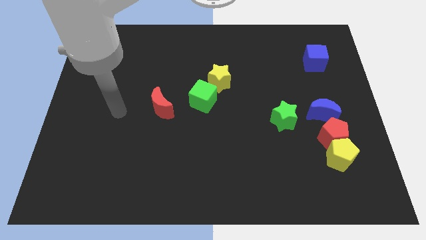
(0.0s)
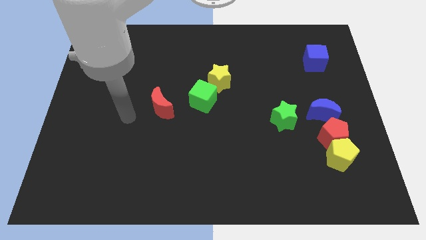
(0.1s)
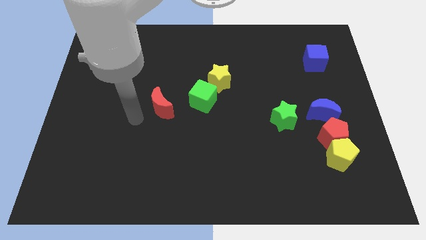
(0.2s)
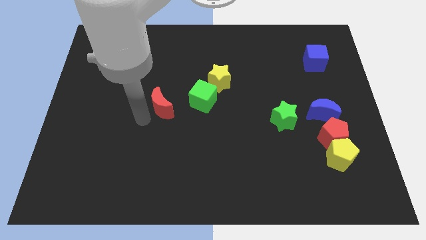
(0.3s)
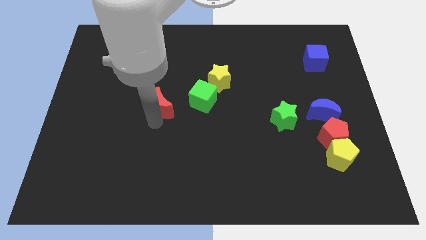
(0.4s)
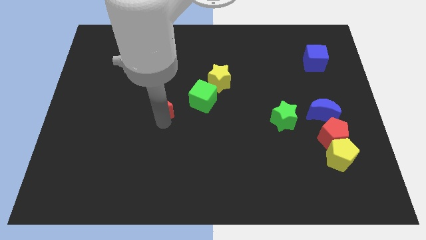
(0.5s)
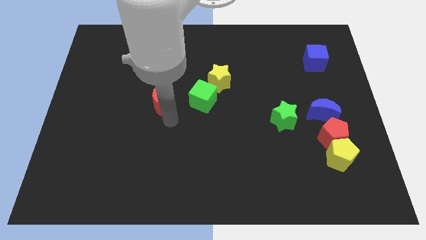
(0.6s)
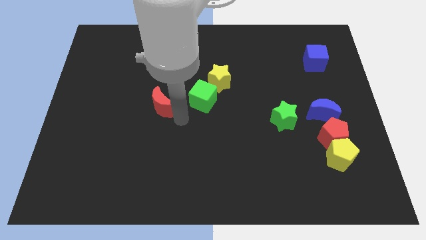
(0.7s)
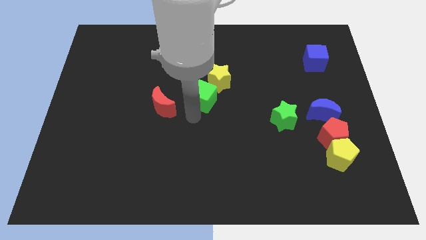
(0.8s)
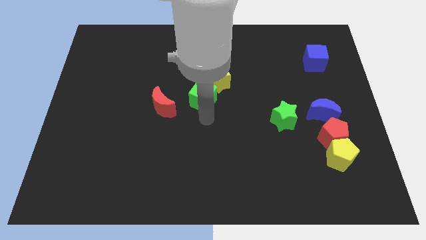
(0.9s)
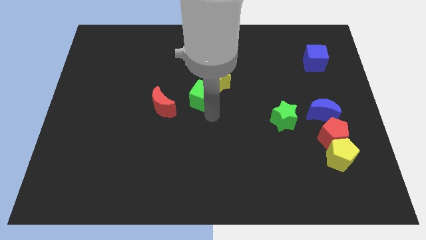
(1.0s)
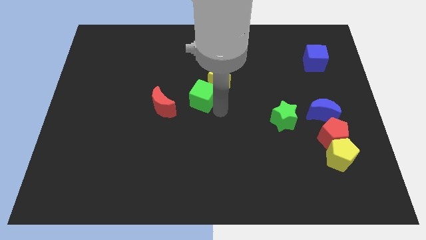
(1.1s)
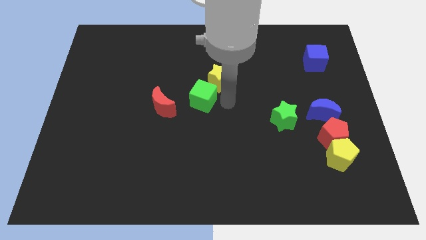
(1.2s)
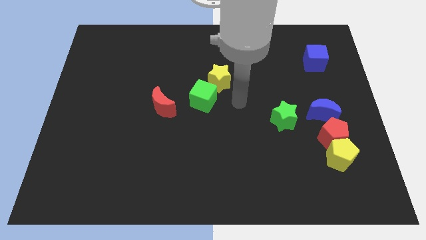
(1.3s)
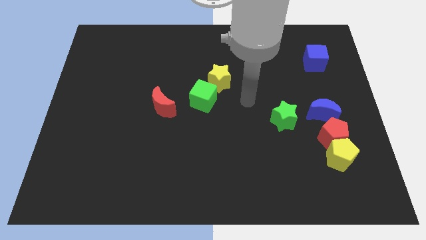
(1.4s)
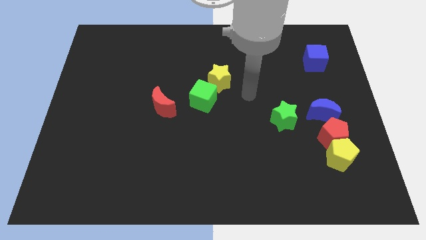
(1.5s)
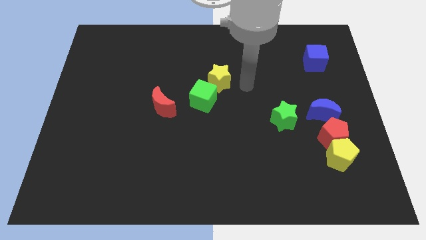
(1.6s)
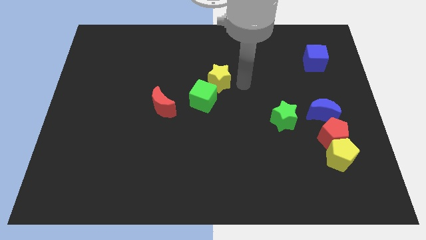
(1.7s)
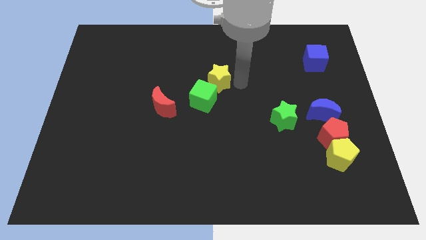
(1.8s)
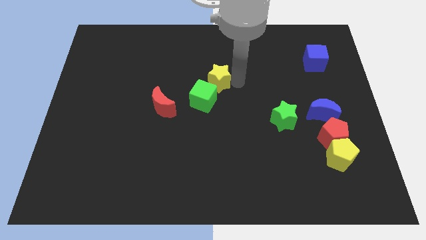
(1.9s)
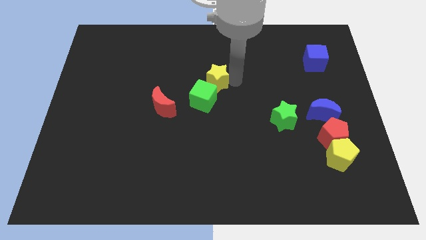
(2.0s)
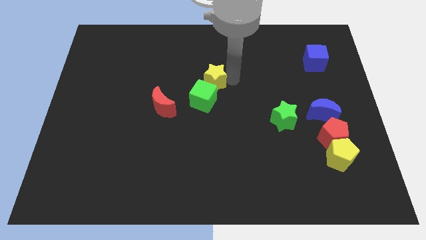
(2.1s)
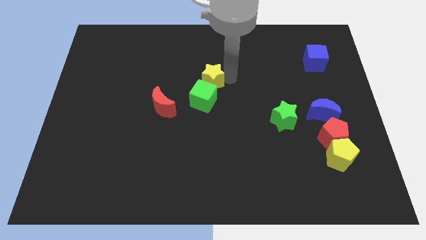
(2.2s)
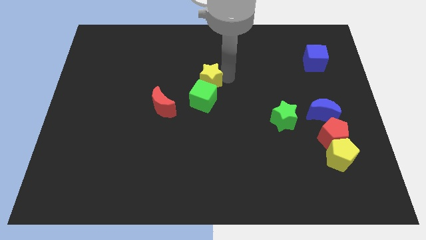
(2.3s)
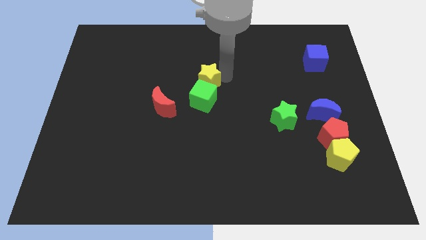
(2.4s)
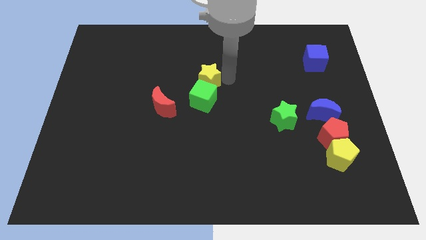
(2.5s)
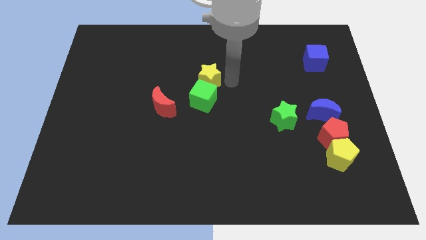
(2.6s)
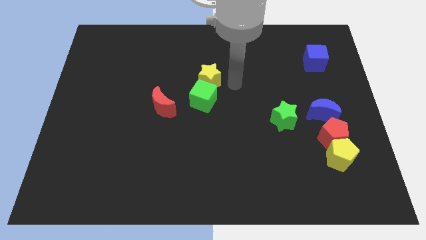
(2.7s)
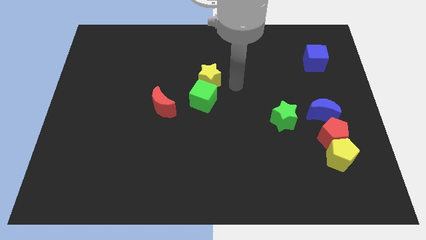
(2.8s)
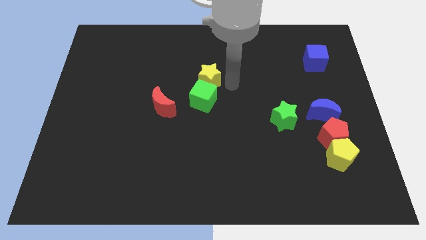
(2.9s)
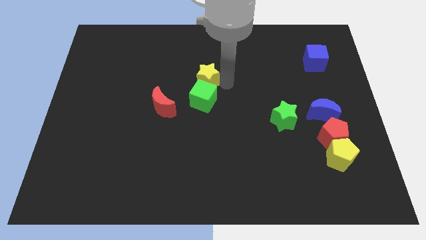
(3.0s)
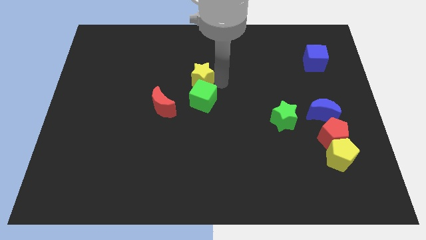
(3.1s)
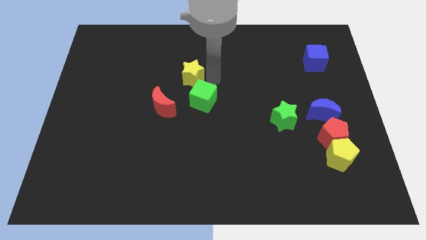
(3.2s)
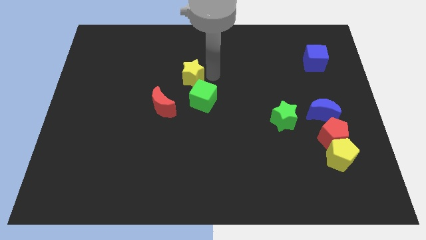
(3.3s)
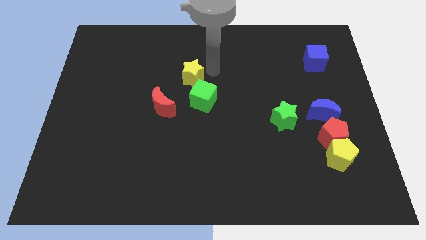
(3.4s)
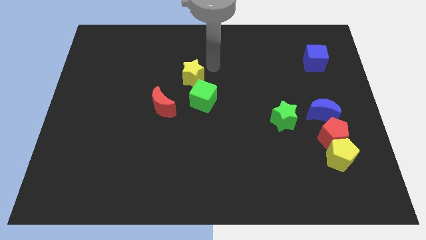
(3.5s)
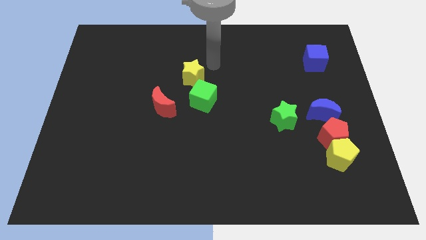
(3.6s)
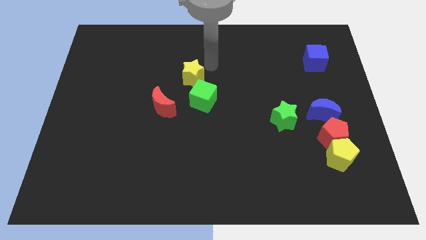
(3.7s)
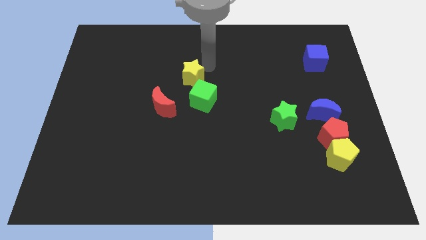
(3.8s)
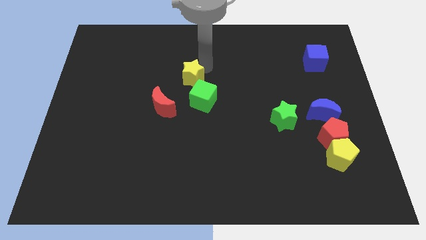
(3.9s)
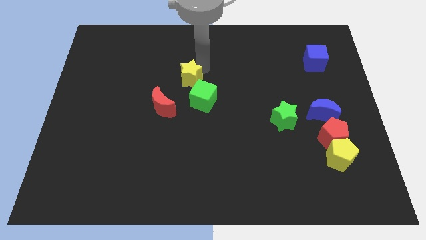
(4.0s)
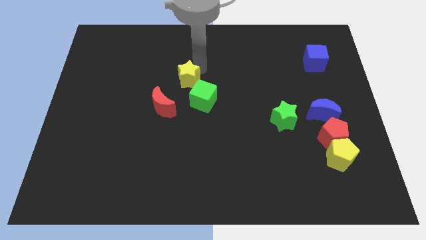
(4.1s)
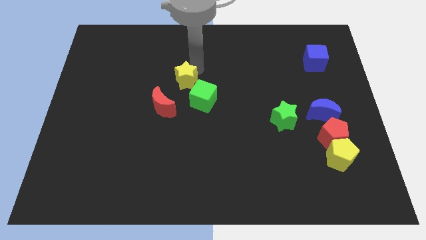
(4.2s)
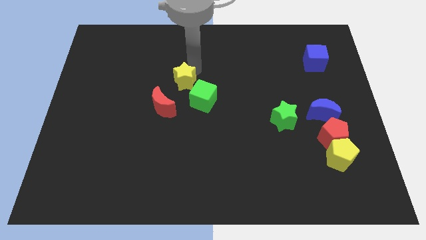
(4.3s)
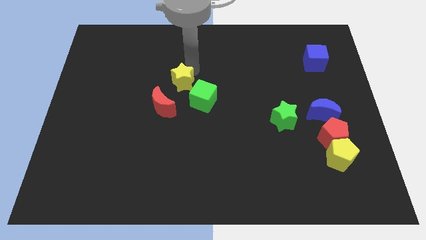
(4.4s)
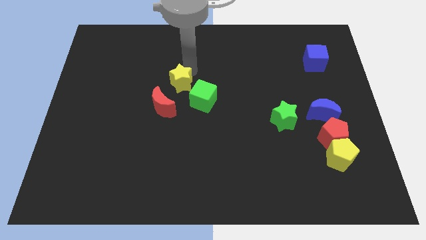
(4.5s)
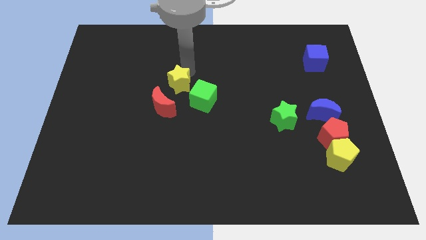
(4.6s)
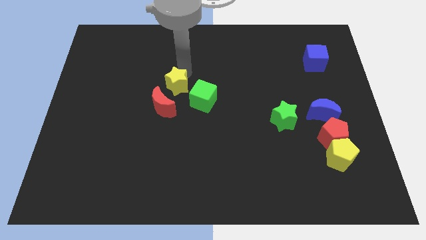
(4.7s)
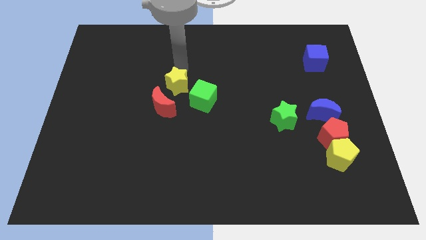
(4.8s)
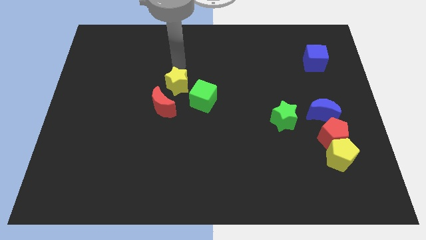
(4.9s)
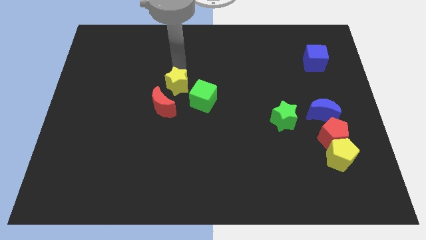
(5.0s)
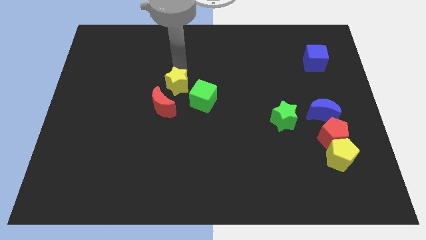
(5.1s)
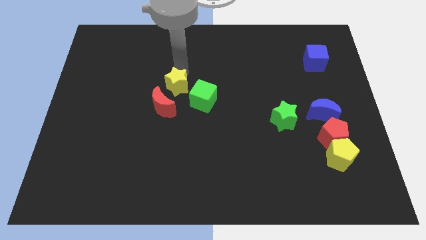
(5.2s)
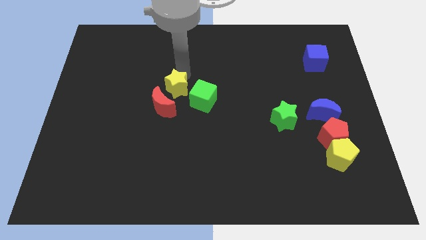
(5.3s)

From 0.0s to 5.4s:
slightly push the yellow star down and then left

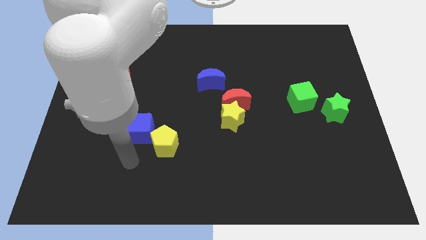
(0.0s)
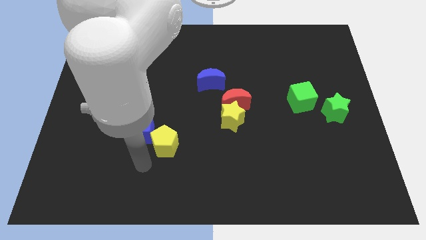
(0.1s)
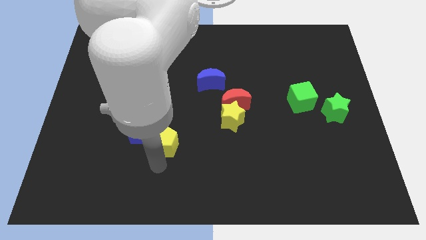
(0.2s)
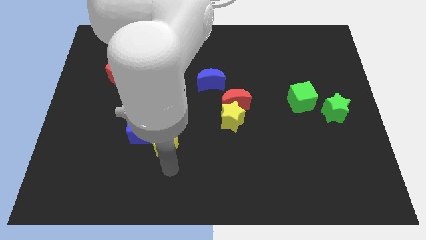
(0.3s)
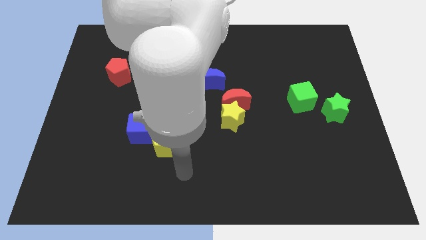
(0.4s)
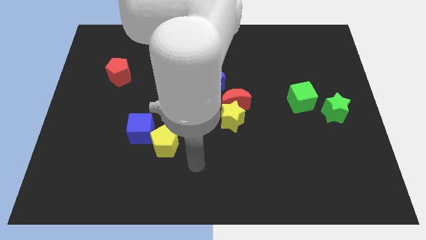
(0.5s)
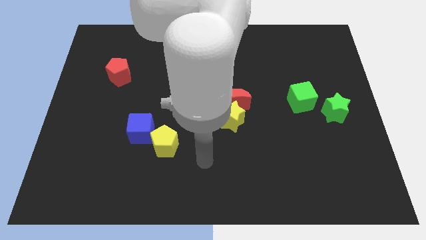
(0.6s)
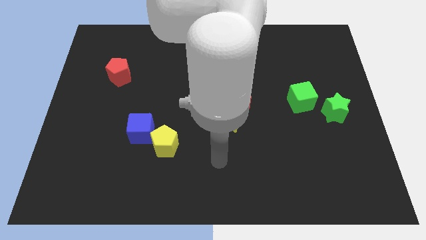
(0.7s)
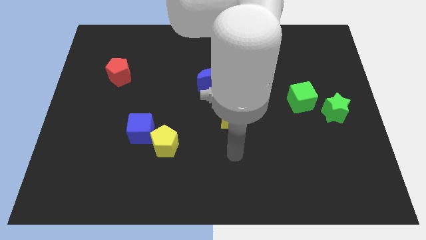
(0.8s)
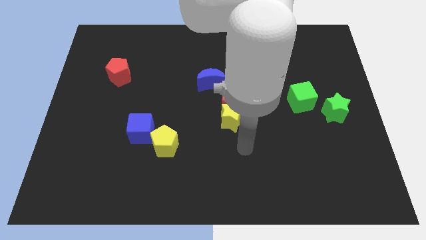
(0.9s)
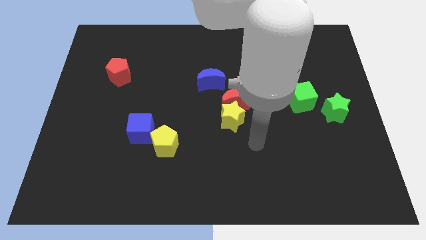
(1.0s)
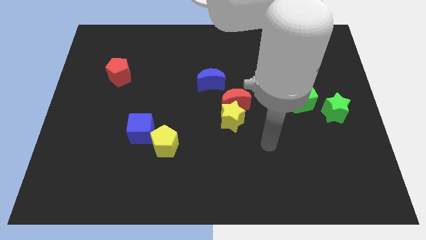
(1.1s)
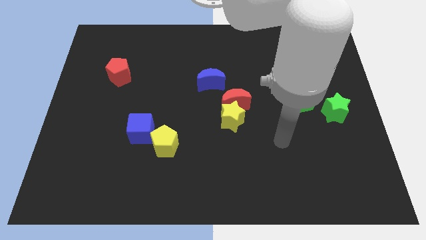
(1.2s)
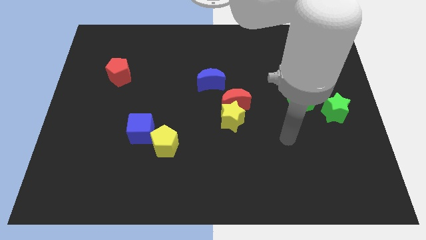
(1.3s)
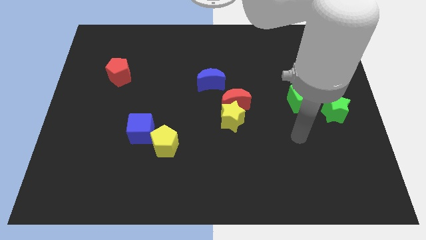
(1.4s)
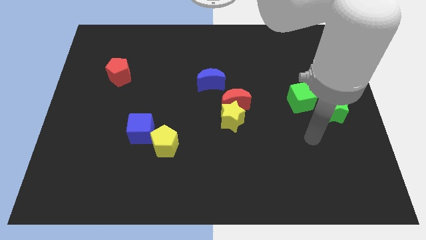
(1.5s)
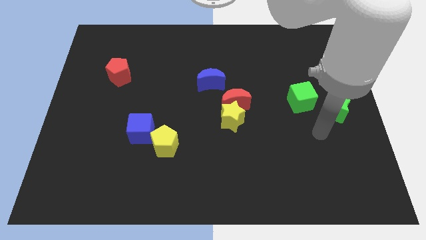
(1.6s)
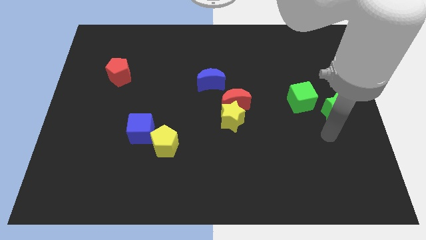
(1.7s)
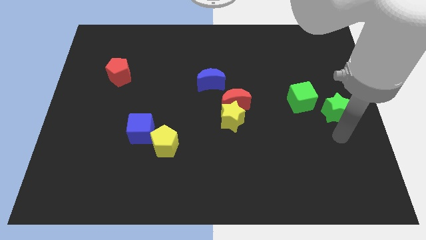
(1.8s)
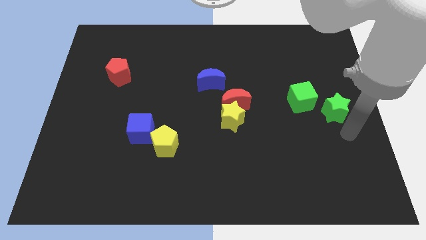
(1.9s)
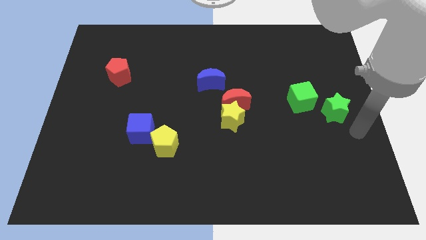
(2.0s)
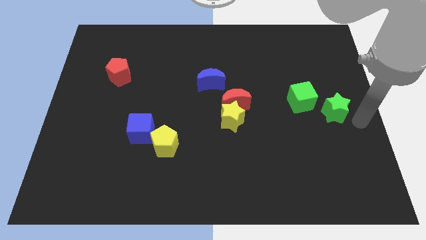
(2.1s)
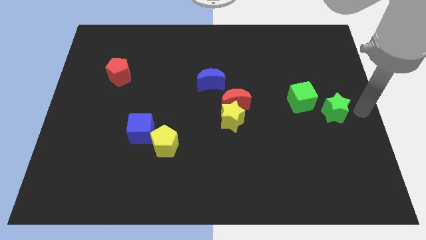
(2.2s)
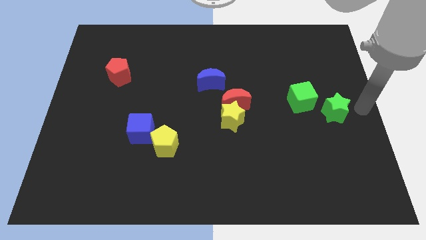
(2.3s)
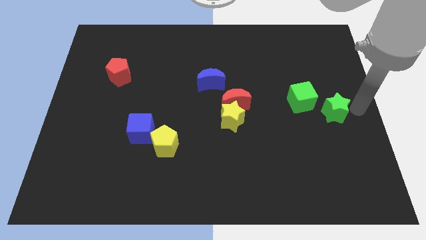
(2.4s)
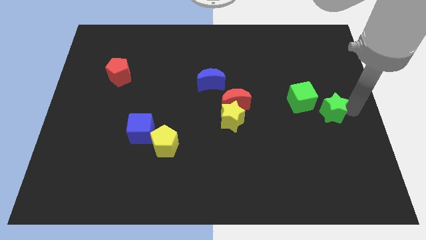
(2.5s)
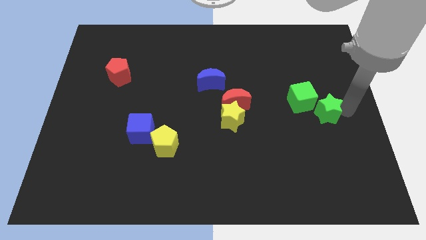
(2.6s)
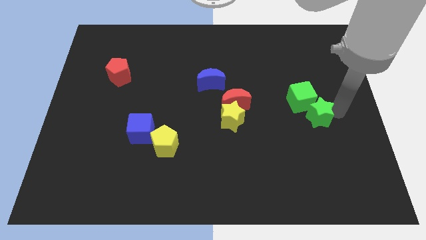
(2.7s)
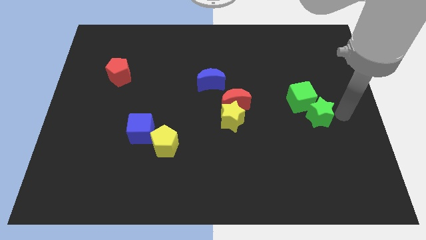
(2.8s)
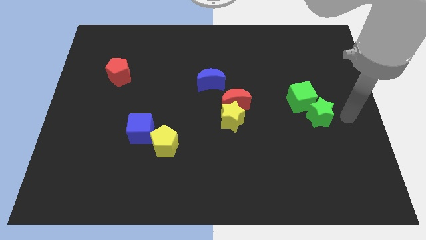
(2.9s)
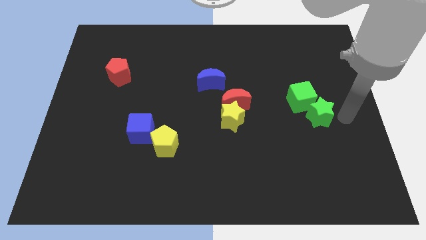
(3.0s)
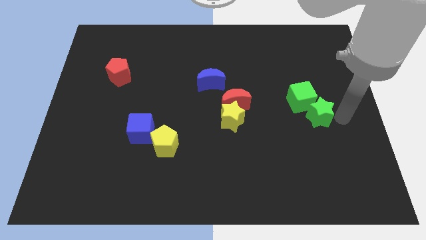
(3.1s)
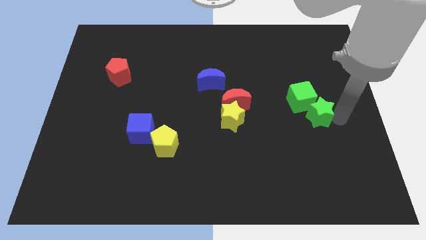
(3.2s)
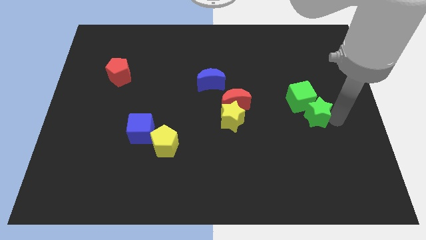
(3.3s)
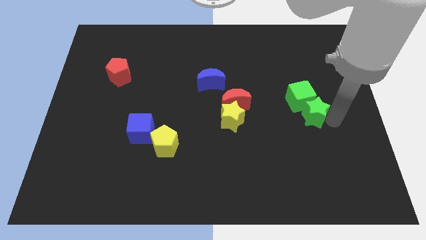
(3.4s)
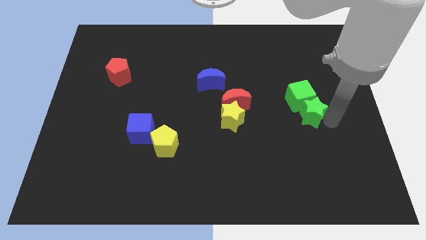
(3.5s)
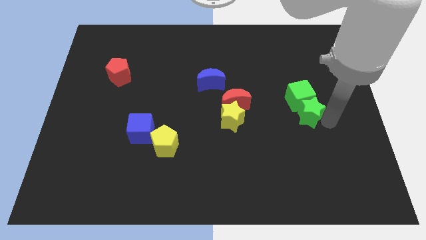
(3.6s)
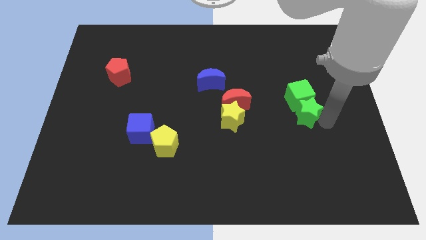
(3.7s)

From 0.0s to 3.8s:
slide the green star a little bit left
